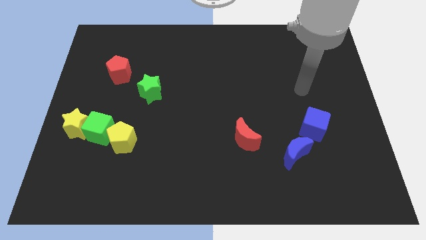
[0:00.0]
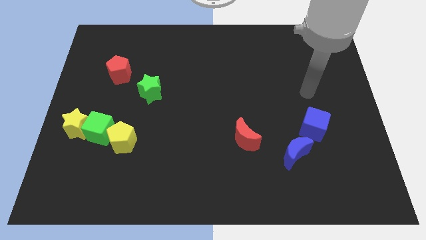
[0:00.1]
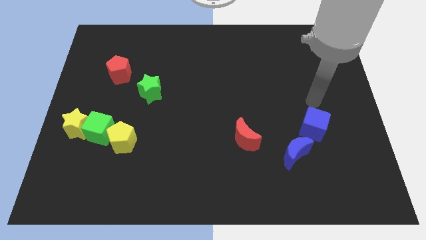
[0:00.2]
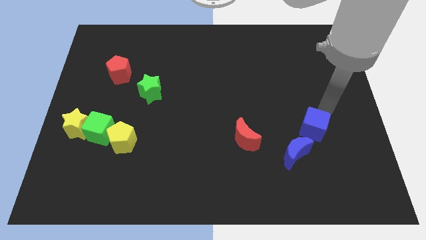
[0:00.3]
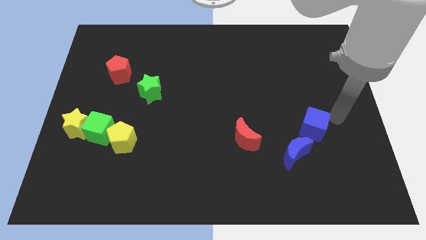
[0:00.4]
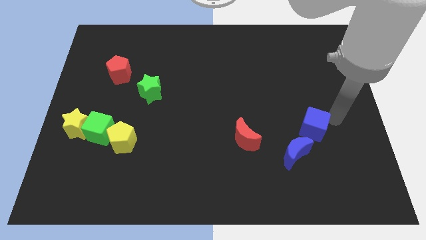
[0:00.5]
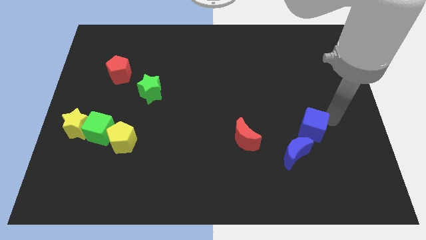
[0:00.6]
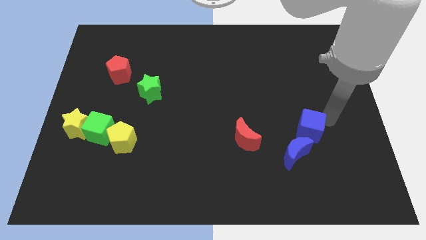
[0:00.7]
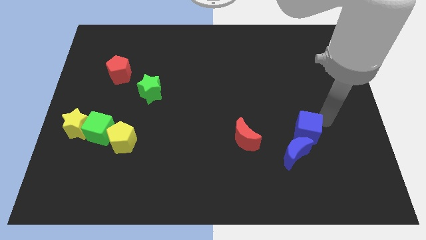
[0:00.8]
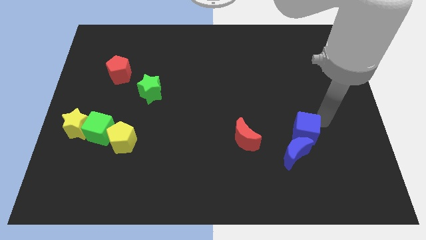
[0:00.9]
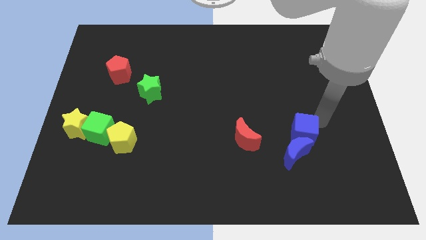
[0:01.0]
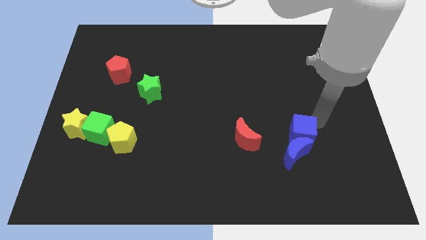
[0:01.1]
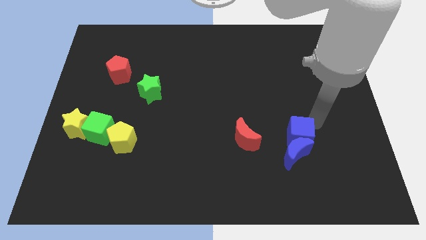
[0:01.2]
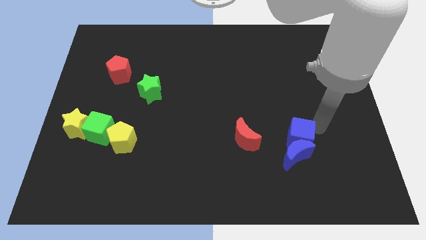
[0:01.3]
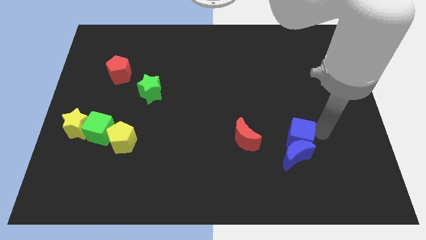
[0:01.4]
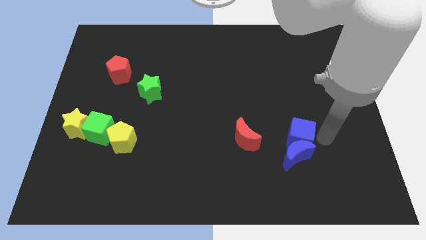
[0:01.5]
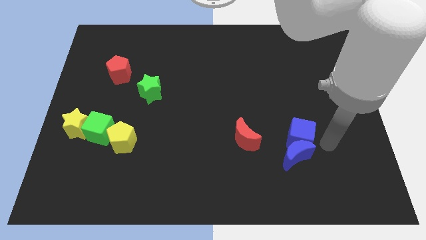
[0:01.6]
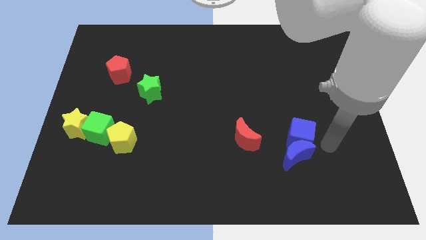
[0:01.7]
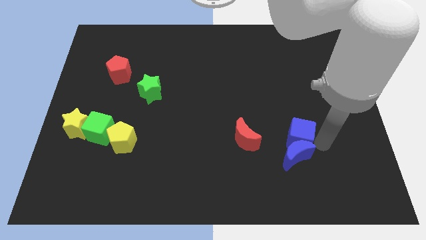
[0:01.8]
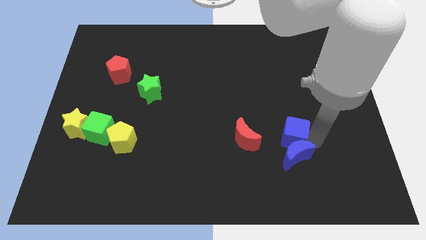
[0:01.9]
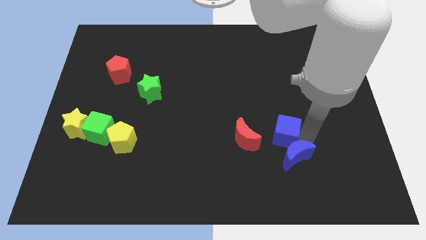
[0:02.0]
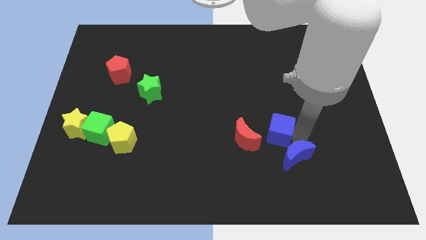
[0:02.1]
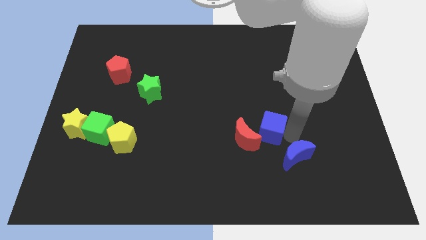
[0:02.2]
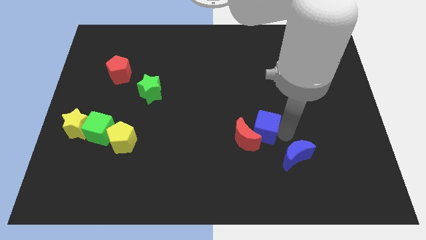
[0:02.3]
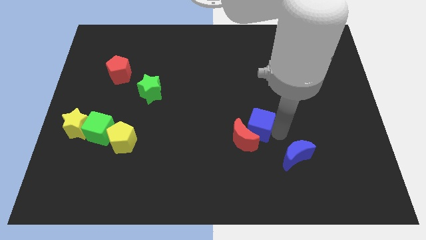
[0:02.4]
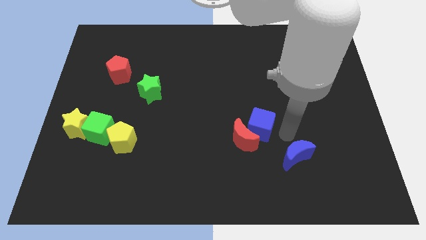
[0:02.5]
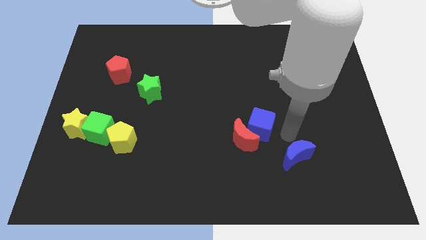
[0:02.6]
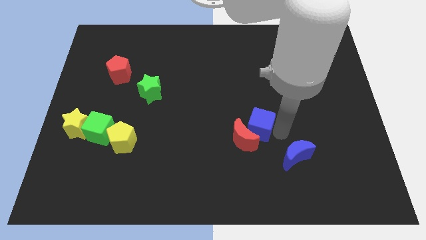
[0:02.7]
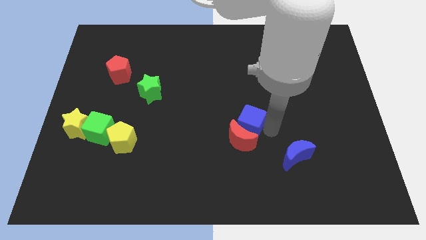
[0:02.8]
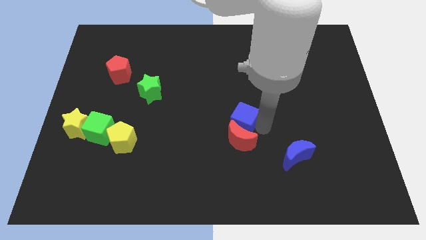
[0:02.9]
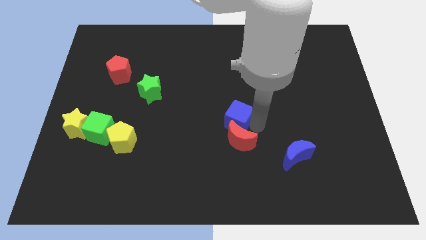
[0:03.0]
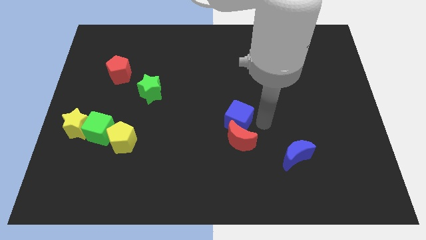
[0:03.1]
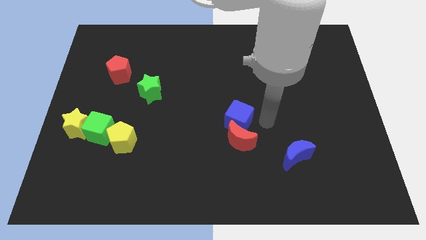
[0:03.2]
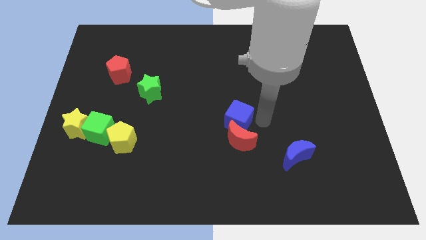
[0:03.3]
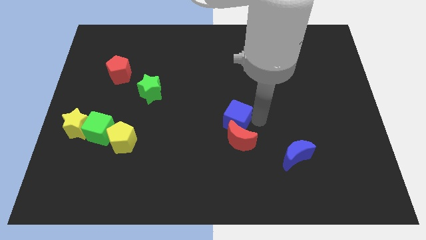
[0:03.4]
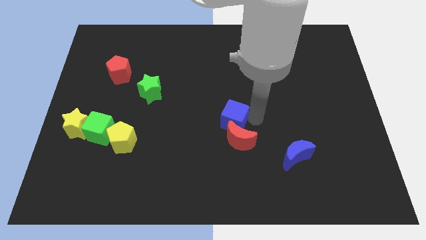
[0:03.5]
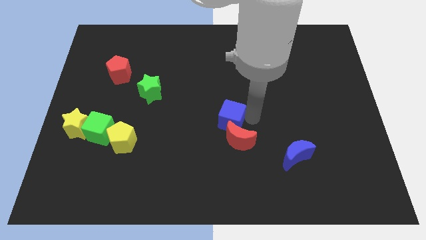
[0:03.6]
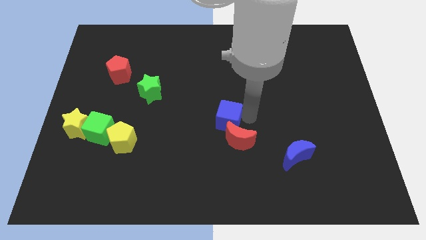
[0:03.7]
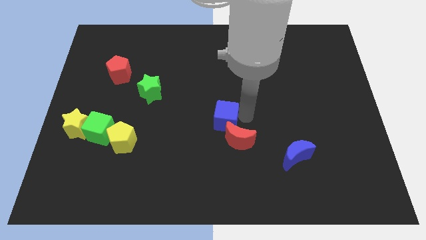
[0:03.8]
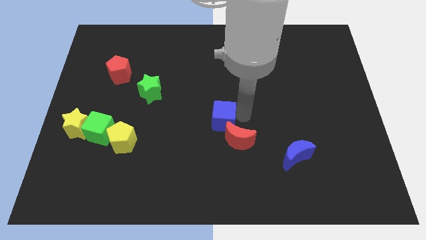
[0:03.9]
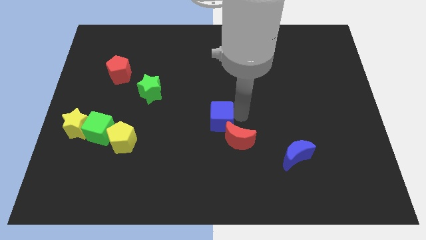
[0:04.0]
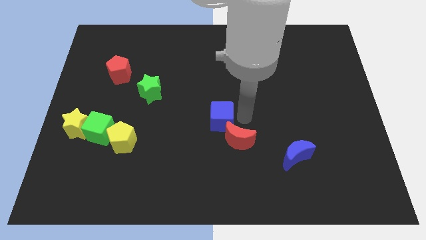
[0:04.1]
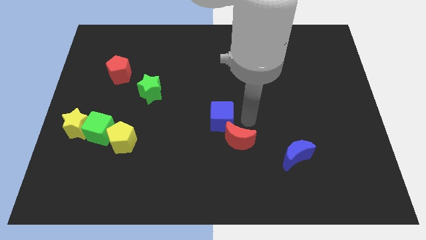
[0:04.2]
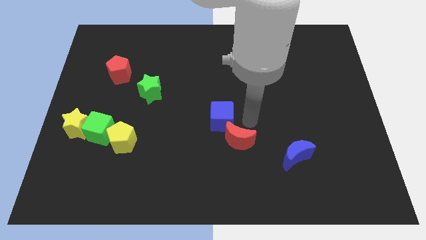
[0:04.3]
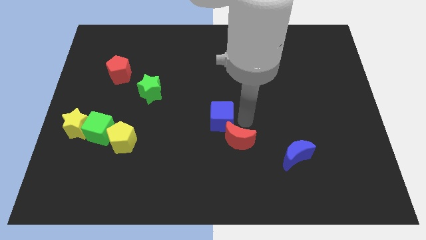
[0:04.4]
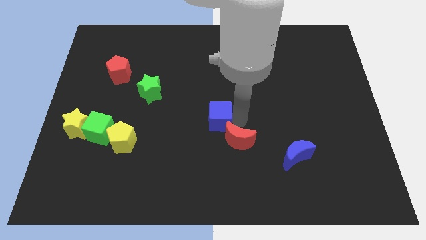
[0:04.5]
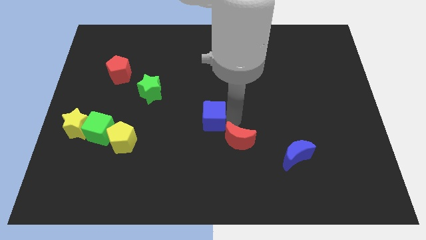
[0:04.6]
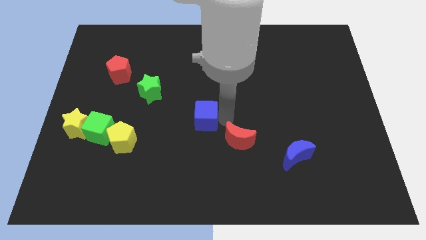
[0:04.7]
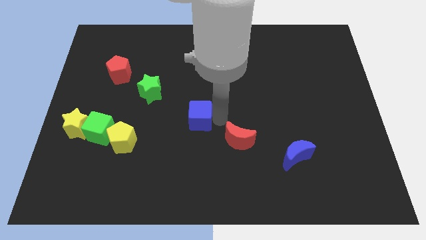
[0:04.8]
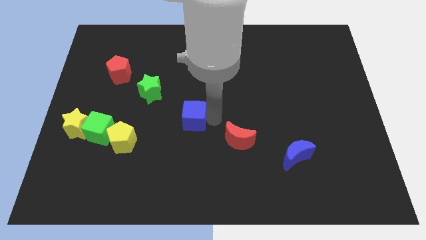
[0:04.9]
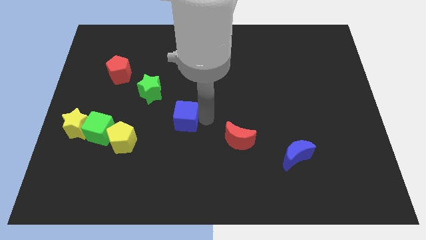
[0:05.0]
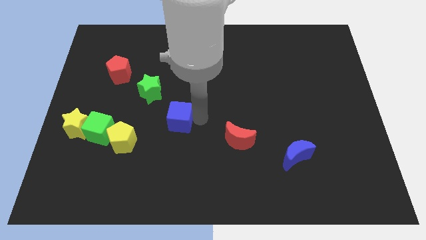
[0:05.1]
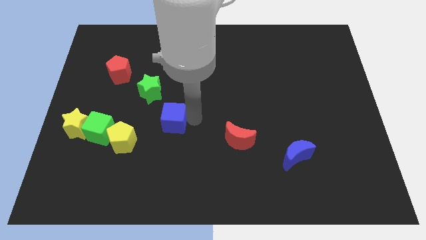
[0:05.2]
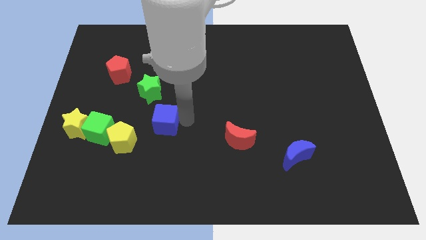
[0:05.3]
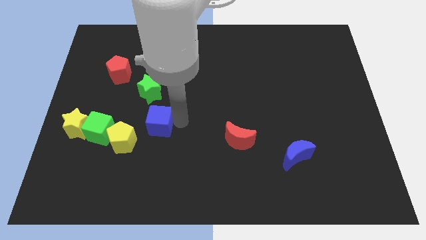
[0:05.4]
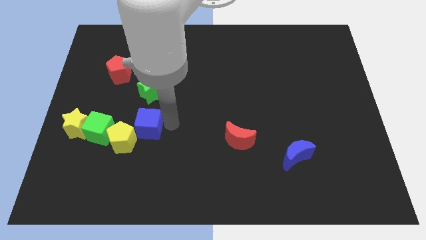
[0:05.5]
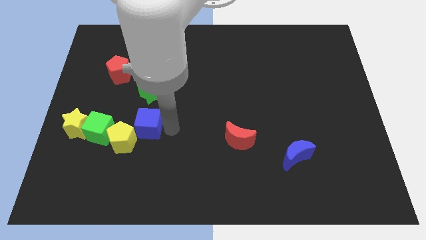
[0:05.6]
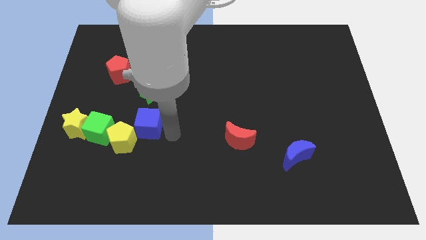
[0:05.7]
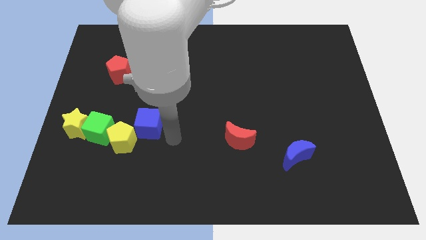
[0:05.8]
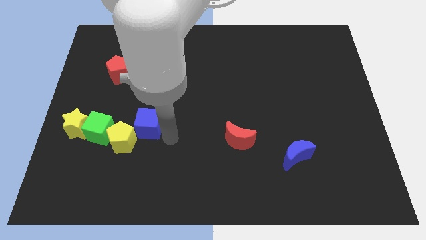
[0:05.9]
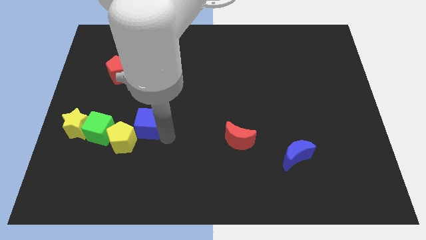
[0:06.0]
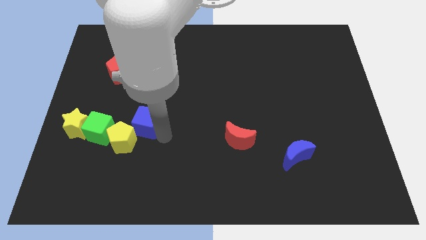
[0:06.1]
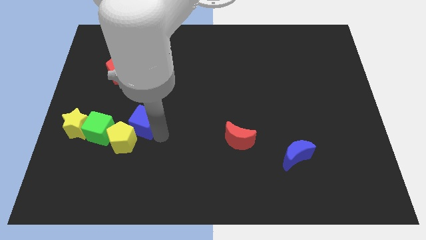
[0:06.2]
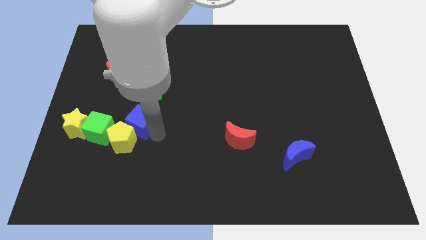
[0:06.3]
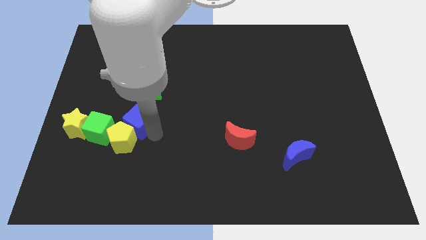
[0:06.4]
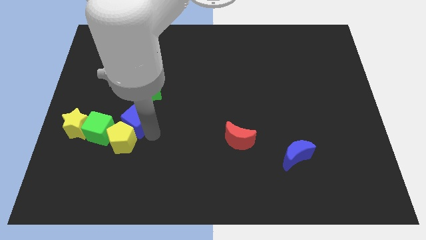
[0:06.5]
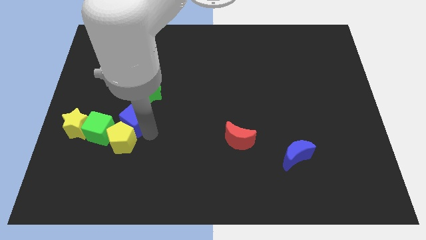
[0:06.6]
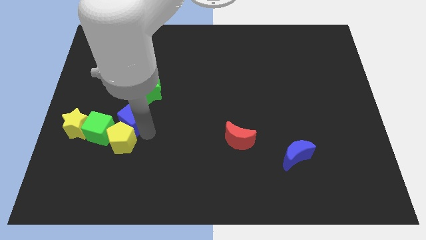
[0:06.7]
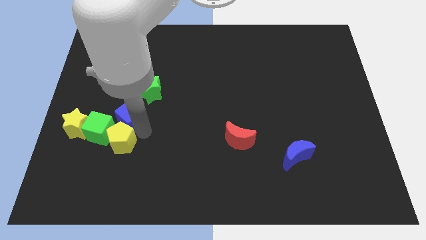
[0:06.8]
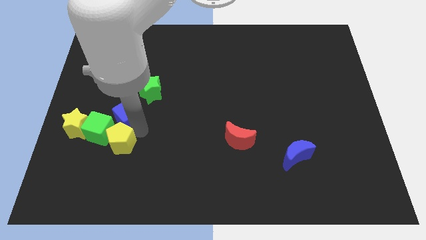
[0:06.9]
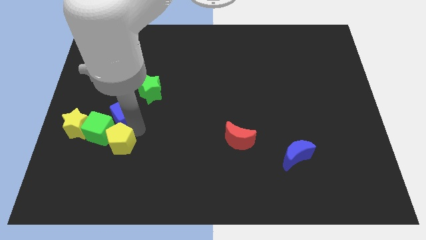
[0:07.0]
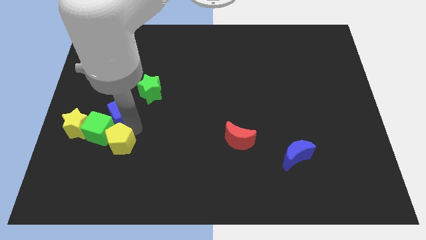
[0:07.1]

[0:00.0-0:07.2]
slide the blue cube to the green cube
